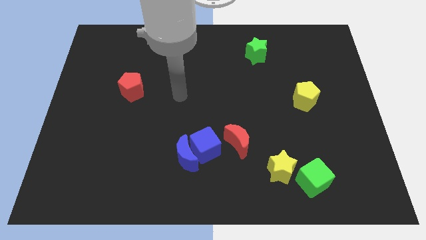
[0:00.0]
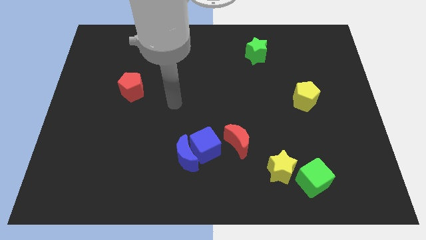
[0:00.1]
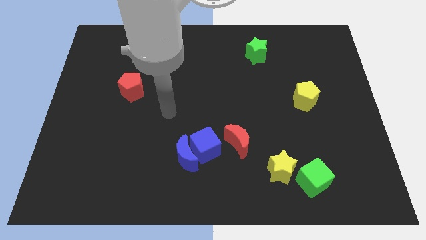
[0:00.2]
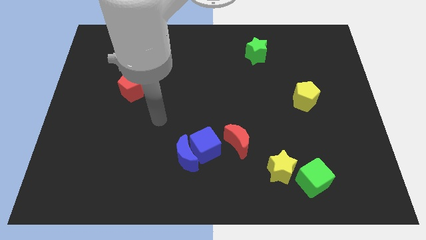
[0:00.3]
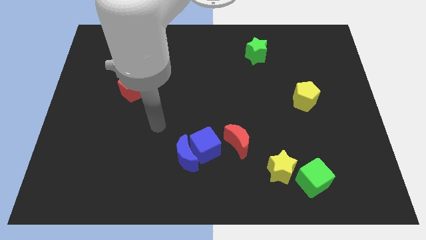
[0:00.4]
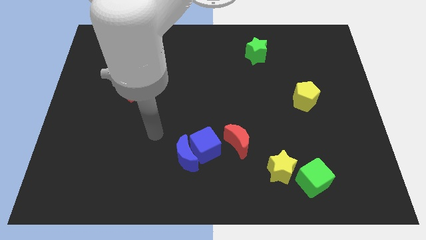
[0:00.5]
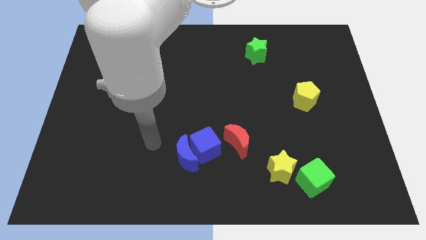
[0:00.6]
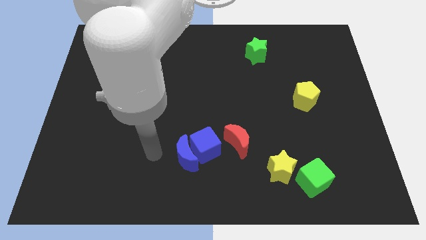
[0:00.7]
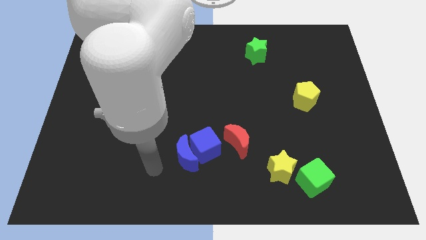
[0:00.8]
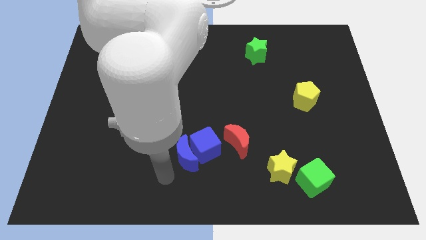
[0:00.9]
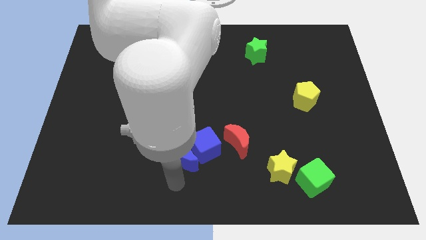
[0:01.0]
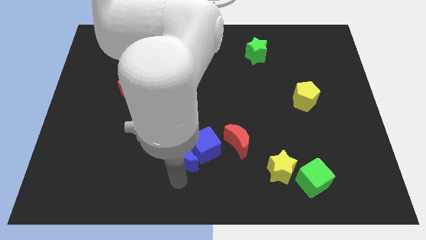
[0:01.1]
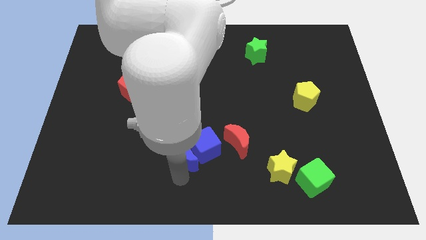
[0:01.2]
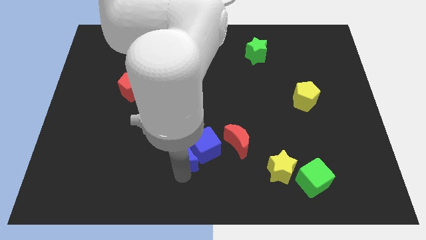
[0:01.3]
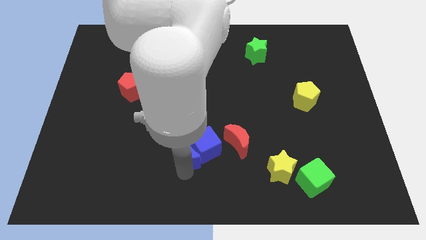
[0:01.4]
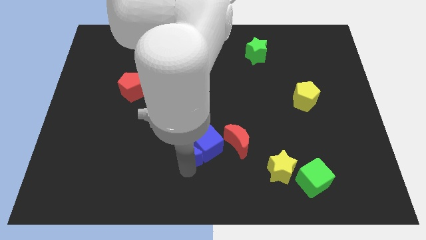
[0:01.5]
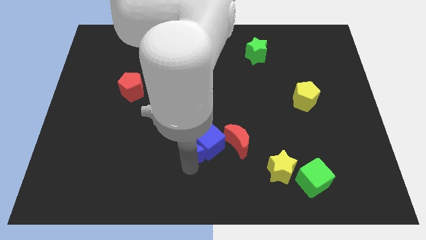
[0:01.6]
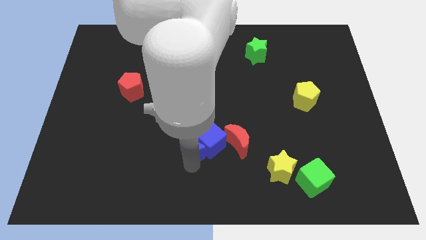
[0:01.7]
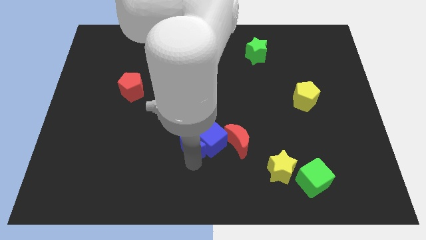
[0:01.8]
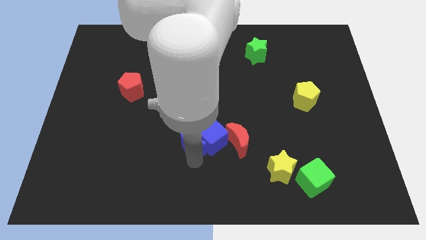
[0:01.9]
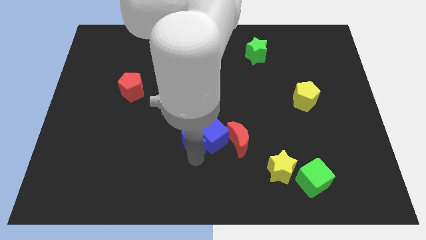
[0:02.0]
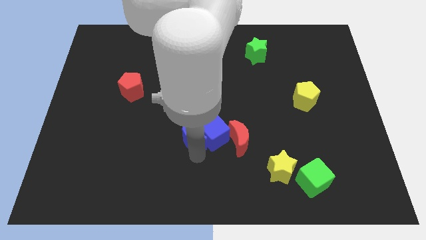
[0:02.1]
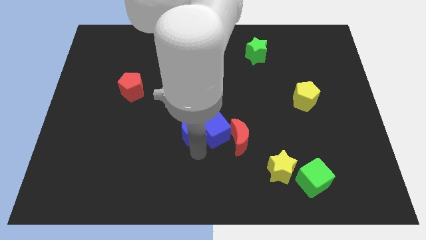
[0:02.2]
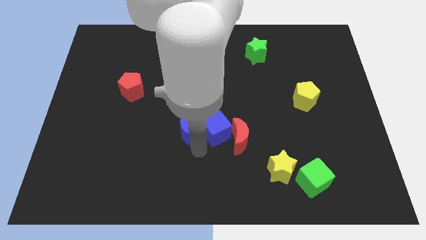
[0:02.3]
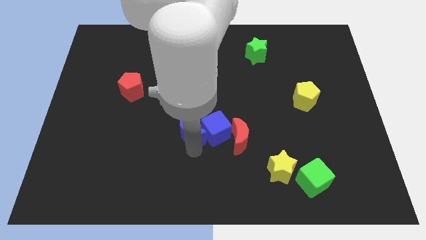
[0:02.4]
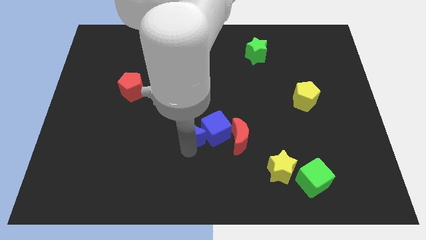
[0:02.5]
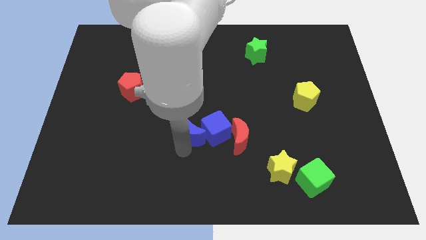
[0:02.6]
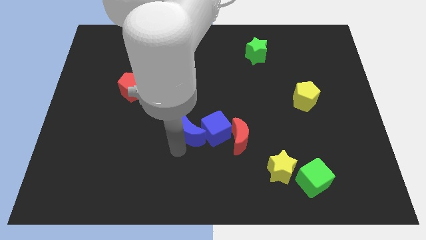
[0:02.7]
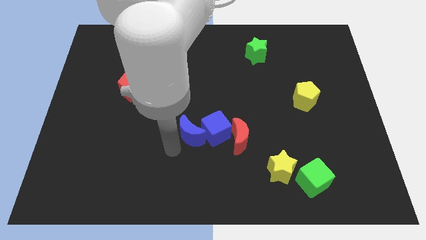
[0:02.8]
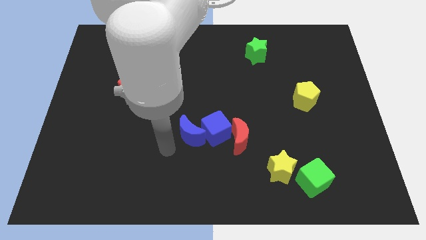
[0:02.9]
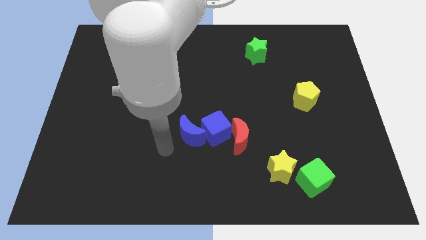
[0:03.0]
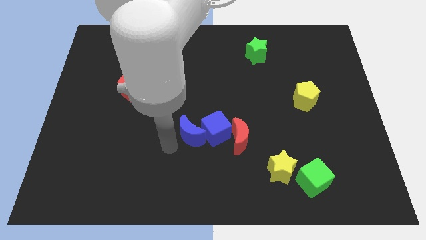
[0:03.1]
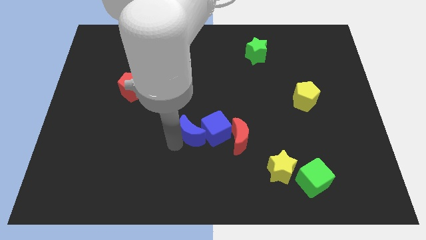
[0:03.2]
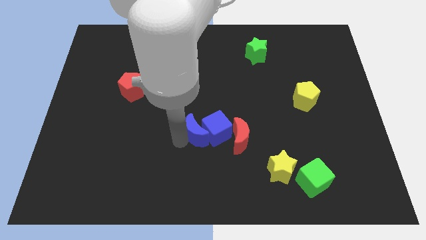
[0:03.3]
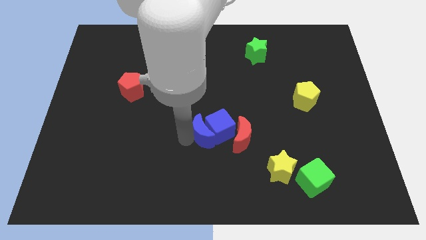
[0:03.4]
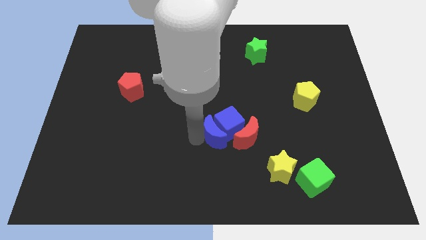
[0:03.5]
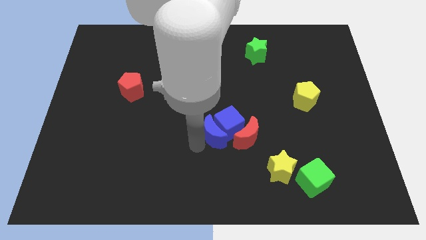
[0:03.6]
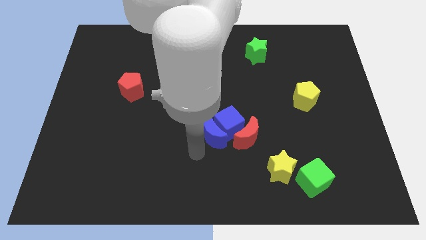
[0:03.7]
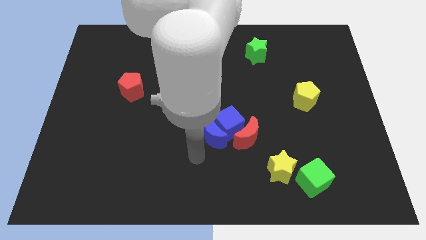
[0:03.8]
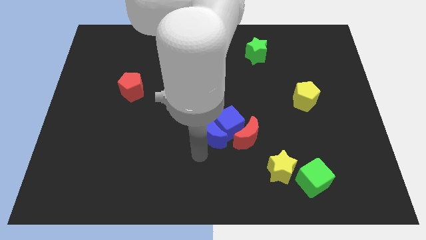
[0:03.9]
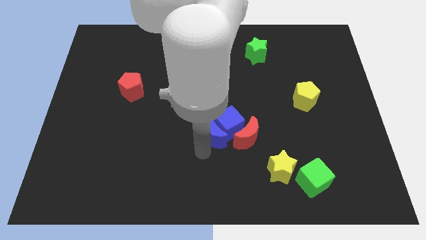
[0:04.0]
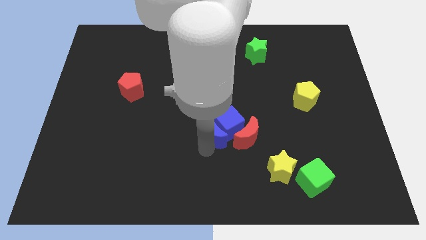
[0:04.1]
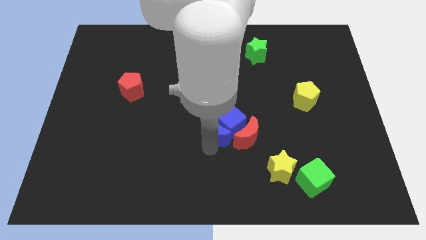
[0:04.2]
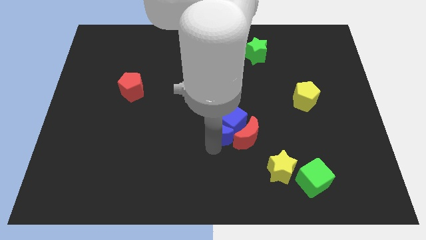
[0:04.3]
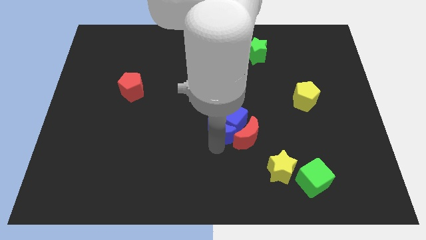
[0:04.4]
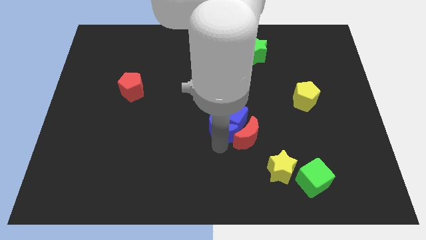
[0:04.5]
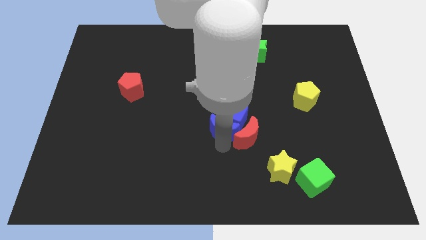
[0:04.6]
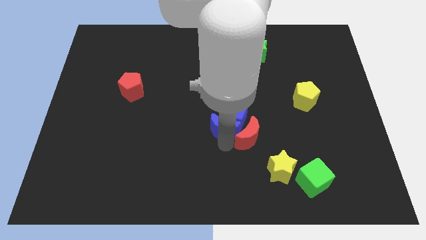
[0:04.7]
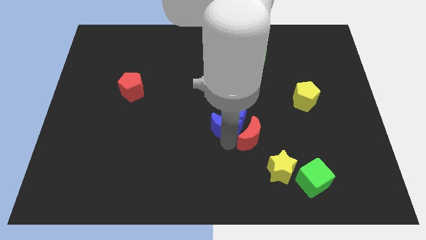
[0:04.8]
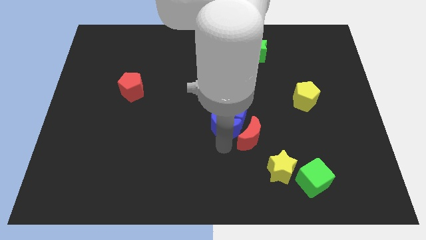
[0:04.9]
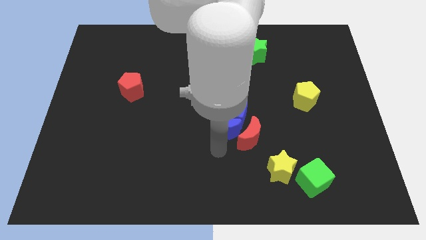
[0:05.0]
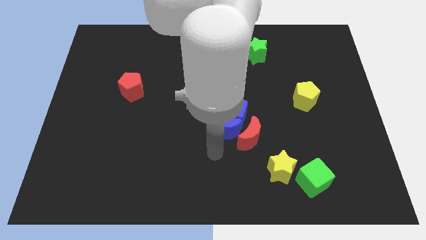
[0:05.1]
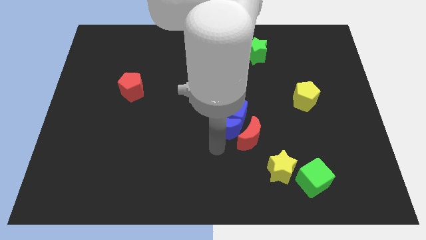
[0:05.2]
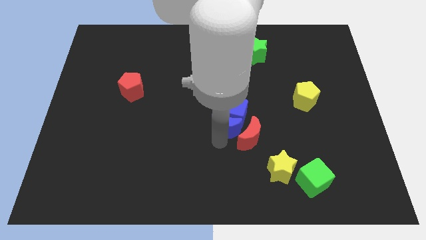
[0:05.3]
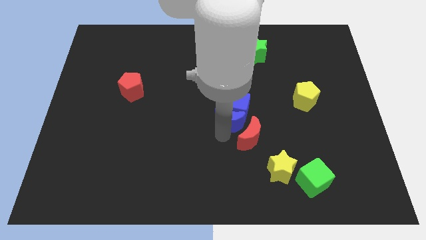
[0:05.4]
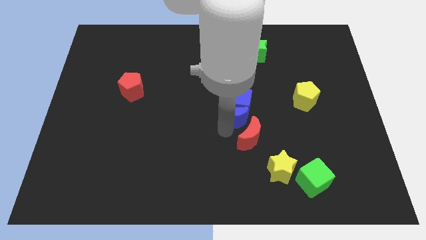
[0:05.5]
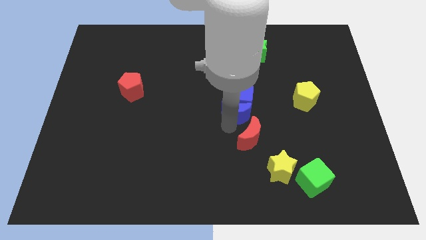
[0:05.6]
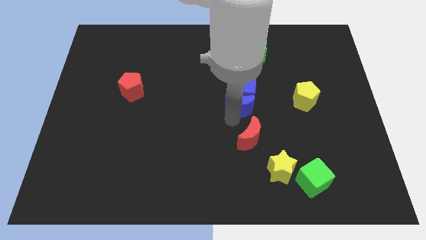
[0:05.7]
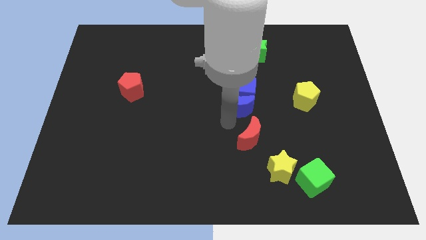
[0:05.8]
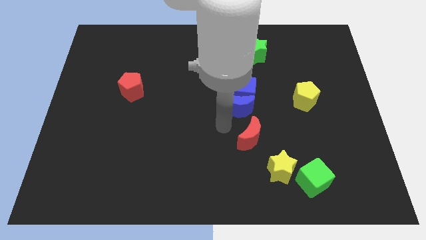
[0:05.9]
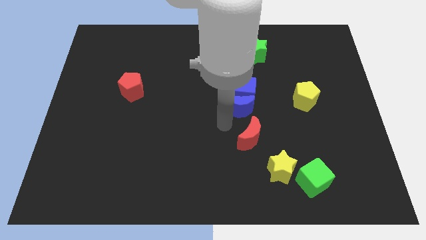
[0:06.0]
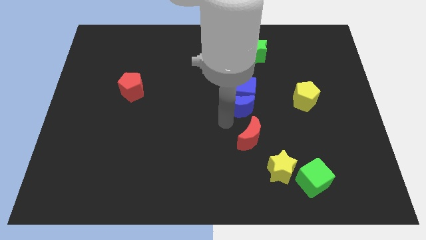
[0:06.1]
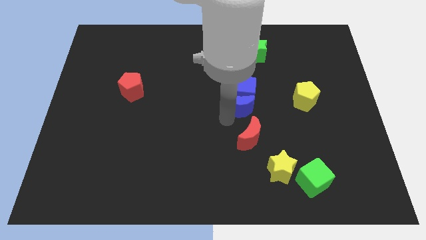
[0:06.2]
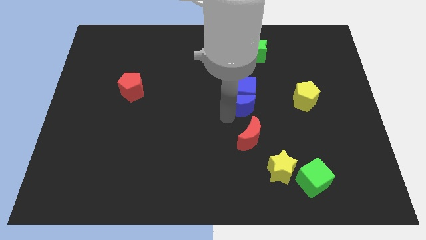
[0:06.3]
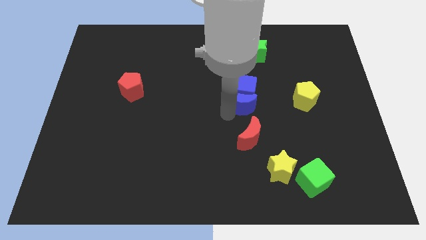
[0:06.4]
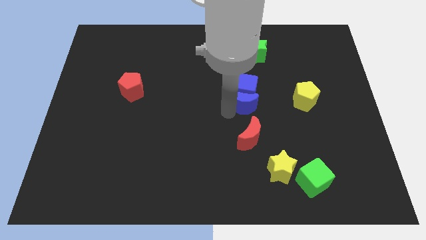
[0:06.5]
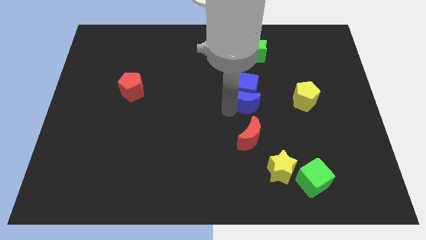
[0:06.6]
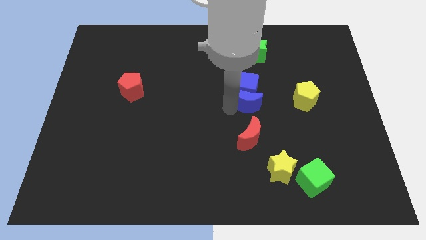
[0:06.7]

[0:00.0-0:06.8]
slide the blue moon diagonally upwards and right

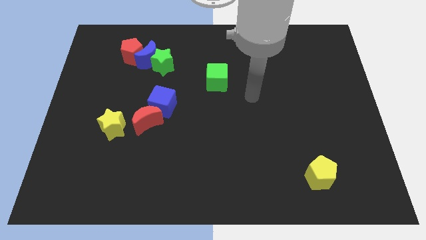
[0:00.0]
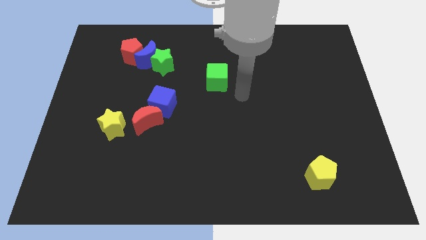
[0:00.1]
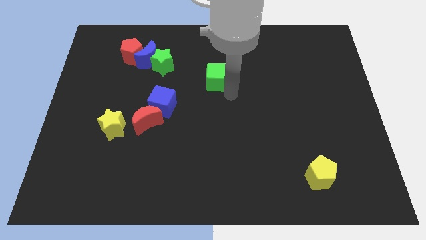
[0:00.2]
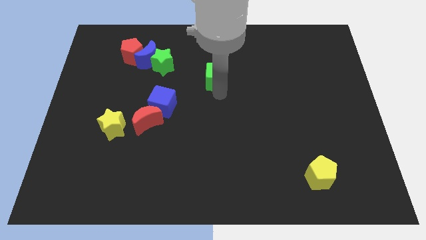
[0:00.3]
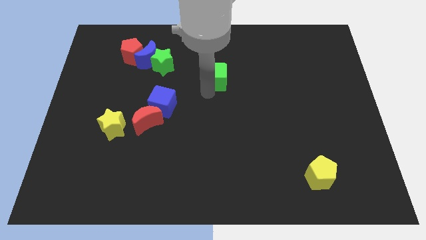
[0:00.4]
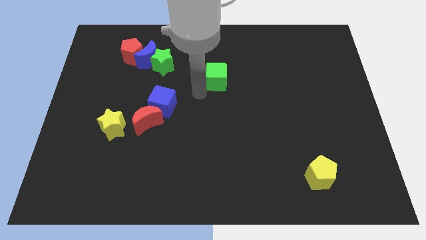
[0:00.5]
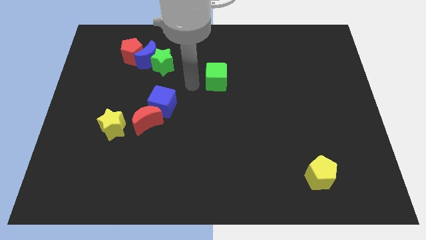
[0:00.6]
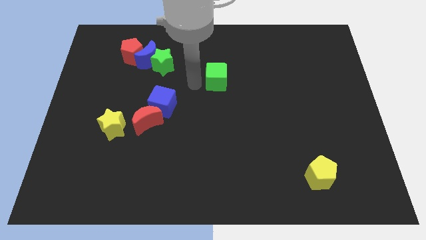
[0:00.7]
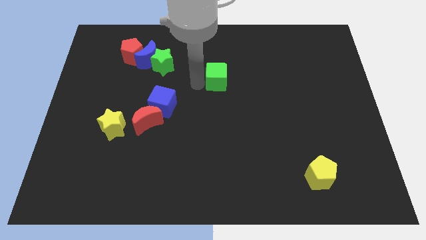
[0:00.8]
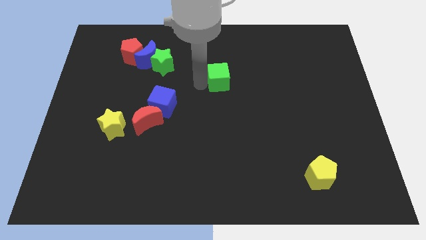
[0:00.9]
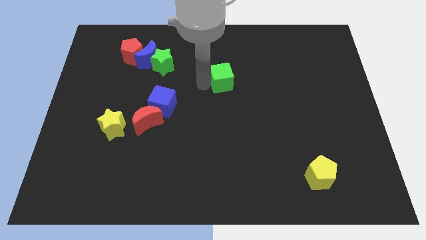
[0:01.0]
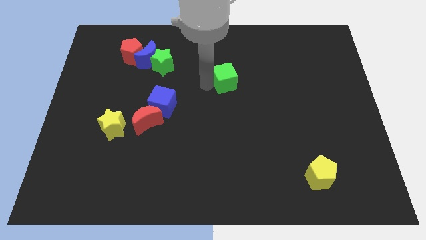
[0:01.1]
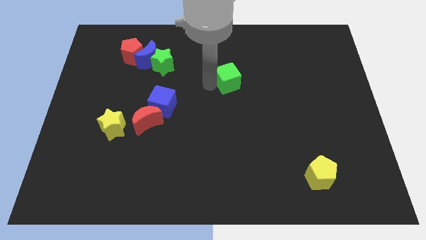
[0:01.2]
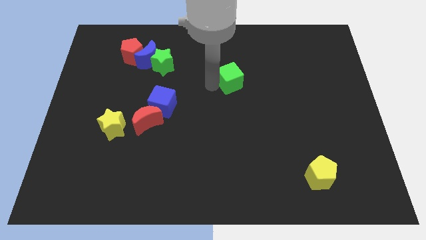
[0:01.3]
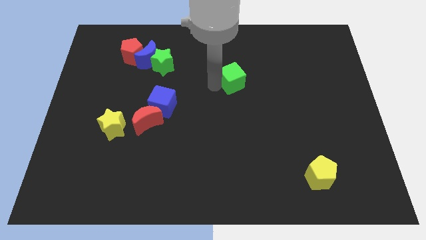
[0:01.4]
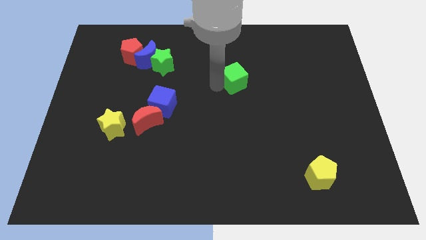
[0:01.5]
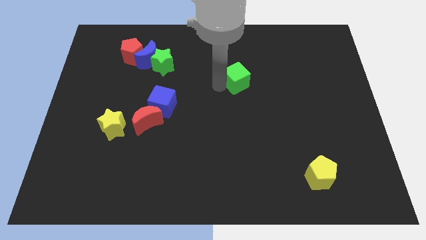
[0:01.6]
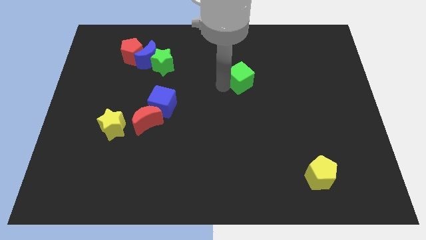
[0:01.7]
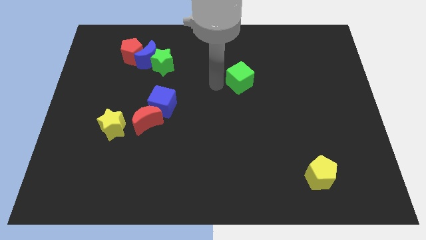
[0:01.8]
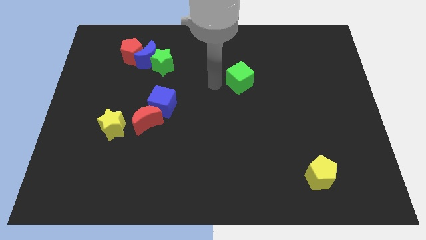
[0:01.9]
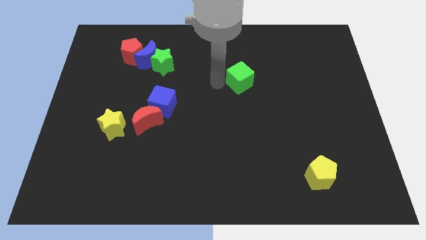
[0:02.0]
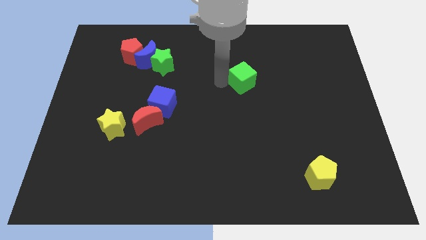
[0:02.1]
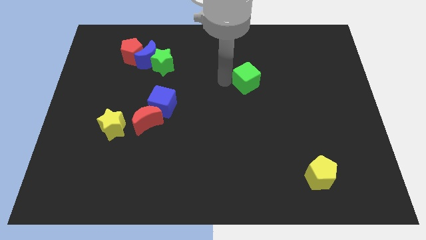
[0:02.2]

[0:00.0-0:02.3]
slide the green cube a little bit to the right
